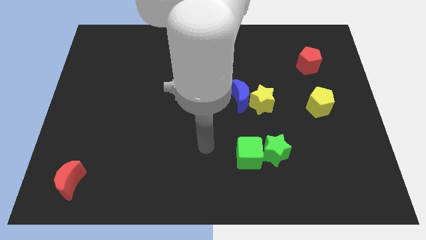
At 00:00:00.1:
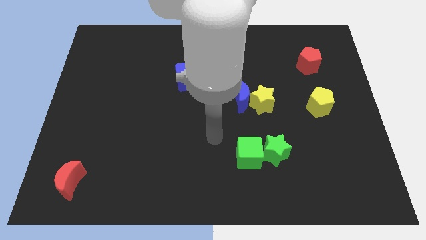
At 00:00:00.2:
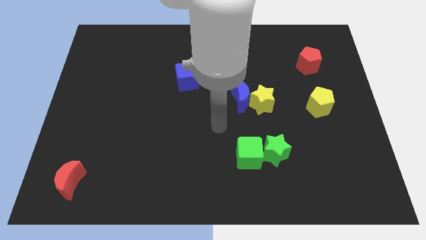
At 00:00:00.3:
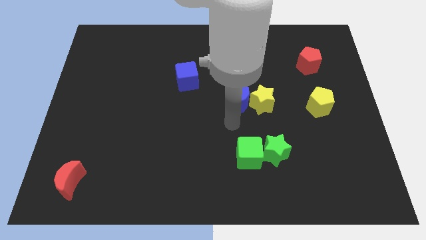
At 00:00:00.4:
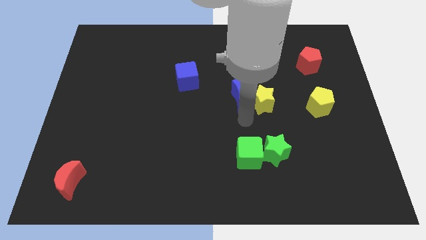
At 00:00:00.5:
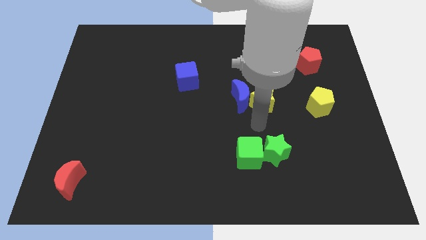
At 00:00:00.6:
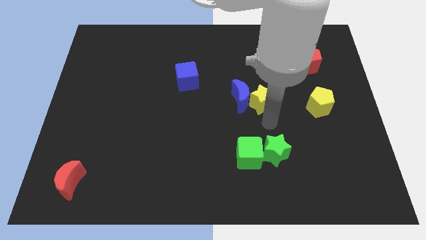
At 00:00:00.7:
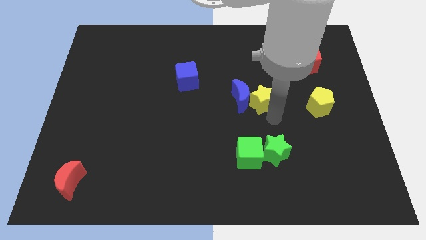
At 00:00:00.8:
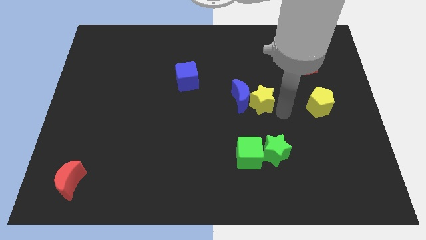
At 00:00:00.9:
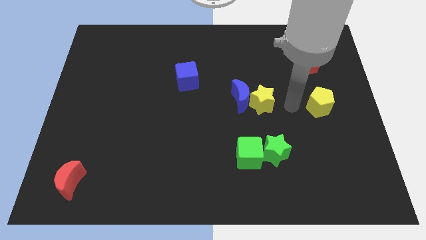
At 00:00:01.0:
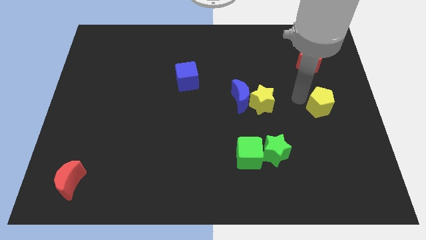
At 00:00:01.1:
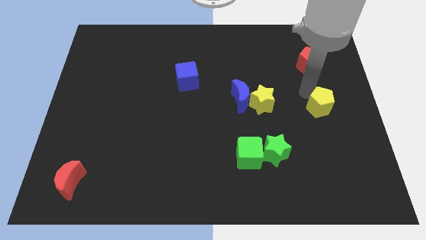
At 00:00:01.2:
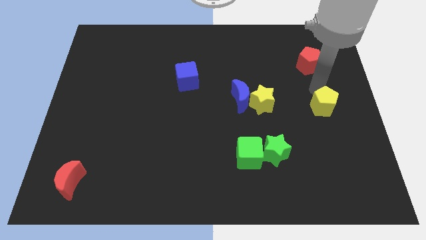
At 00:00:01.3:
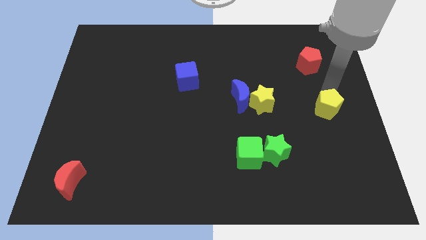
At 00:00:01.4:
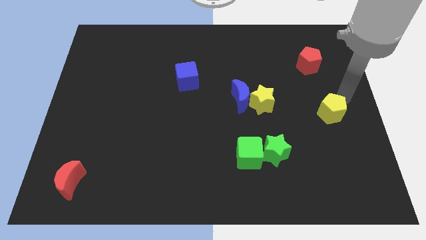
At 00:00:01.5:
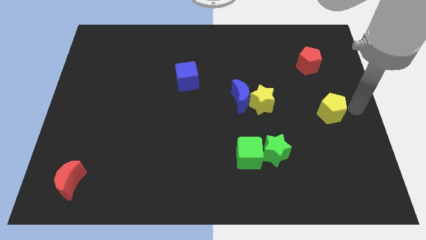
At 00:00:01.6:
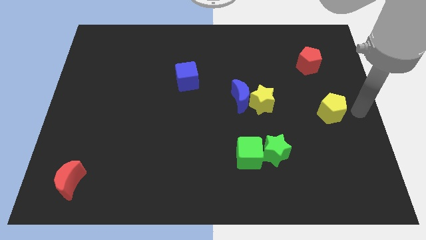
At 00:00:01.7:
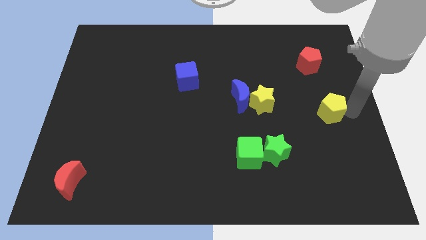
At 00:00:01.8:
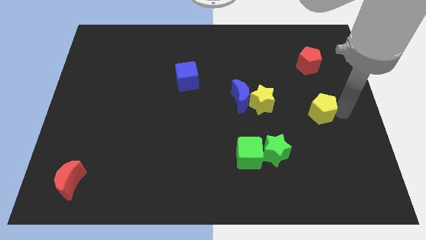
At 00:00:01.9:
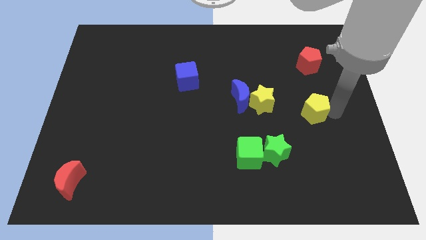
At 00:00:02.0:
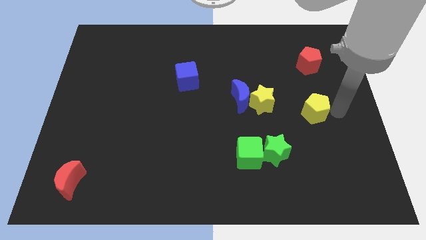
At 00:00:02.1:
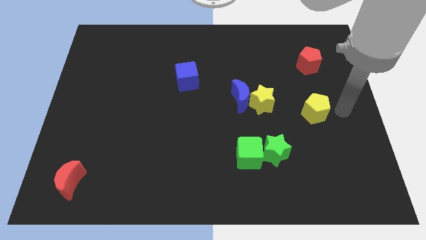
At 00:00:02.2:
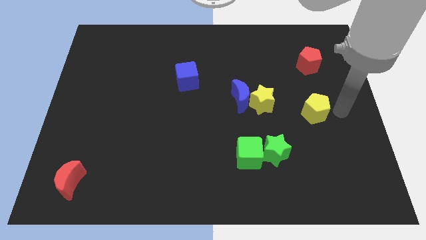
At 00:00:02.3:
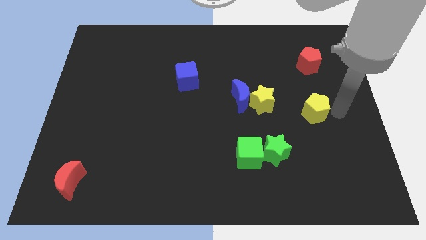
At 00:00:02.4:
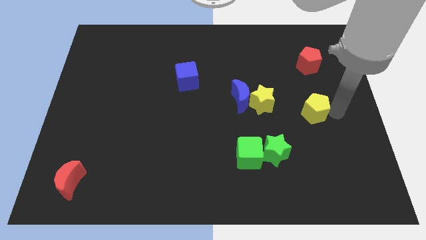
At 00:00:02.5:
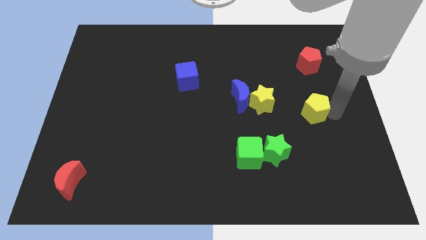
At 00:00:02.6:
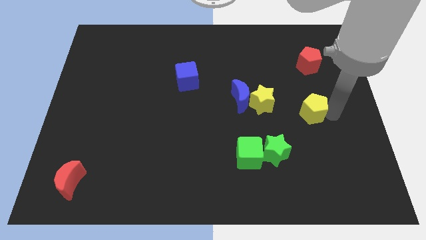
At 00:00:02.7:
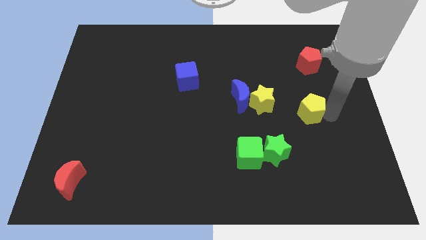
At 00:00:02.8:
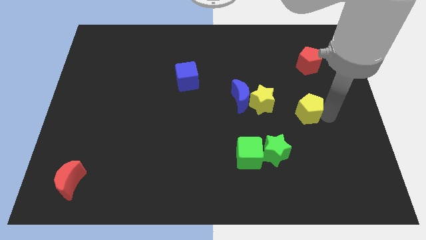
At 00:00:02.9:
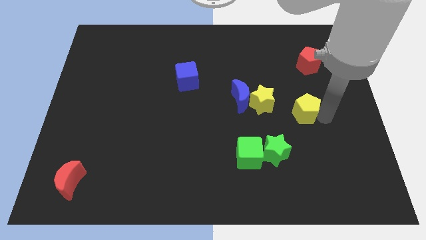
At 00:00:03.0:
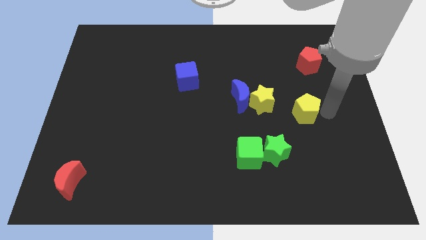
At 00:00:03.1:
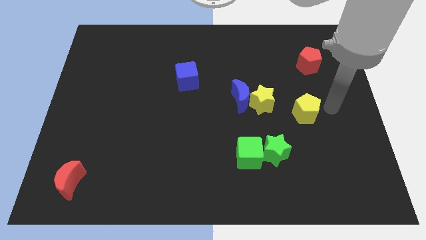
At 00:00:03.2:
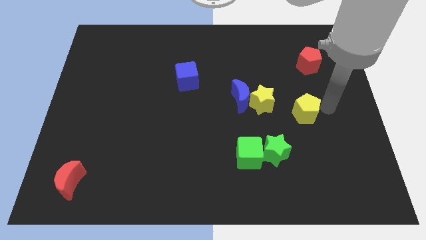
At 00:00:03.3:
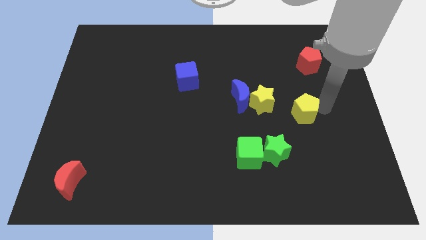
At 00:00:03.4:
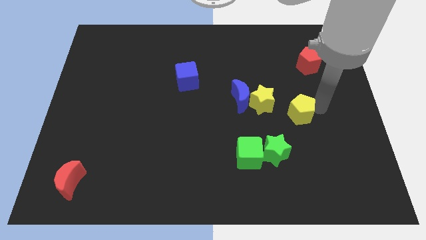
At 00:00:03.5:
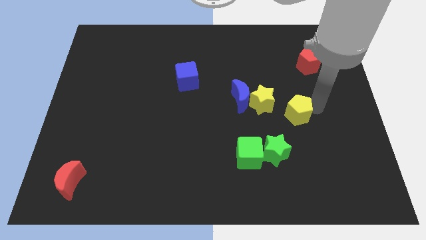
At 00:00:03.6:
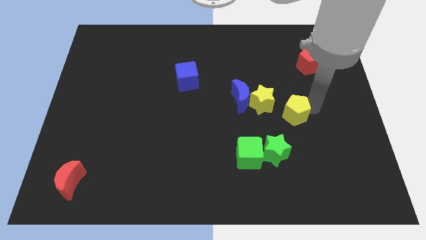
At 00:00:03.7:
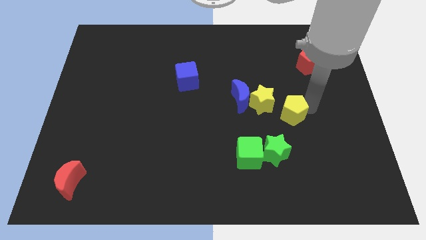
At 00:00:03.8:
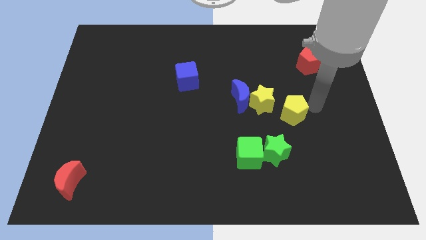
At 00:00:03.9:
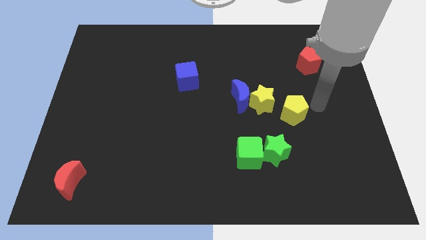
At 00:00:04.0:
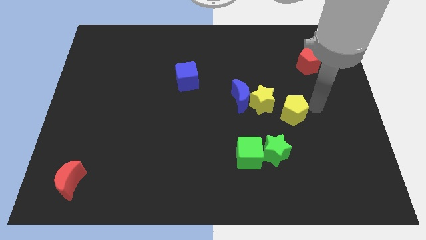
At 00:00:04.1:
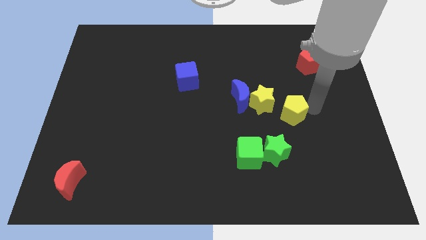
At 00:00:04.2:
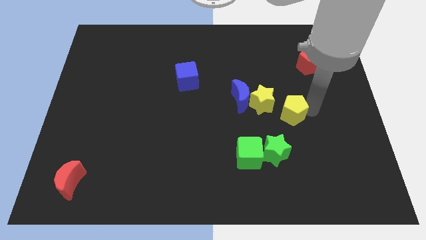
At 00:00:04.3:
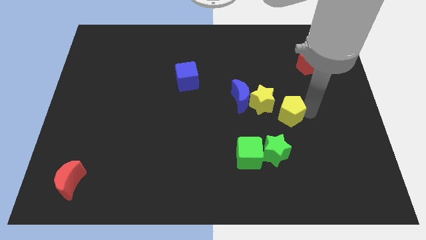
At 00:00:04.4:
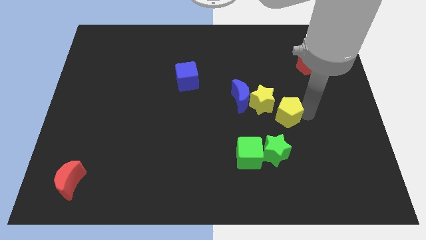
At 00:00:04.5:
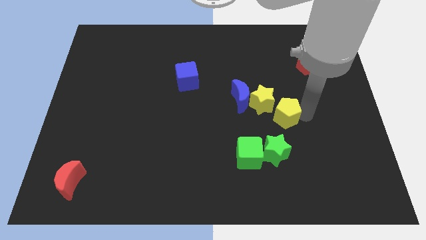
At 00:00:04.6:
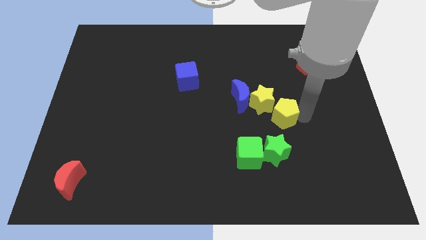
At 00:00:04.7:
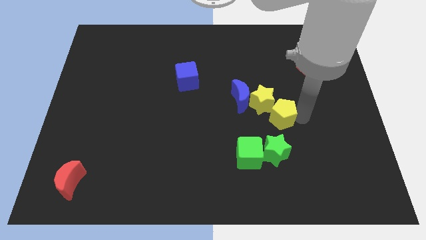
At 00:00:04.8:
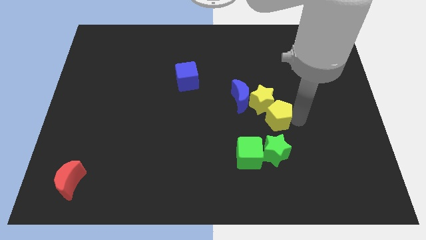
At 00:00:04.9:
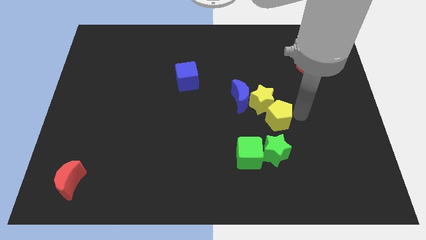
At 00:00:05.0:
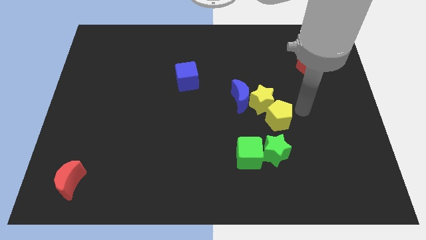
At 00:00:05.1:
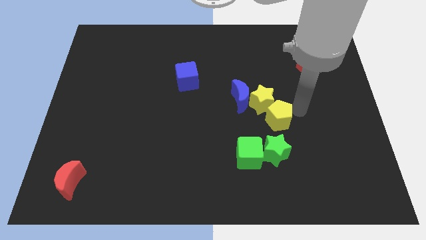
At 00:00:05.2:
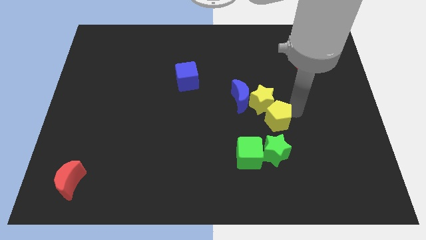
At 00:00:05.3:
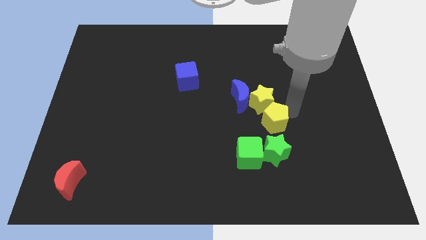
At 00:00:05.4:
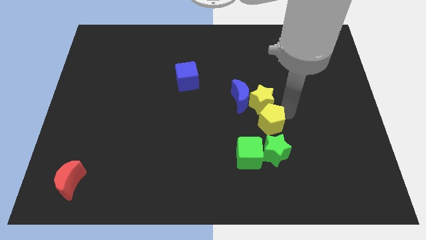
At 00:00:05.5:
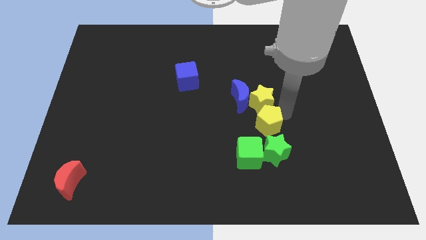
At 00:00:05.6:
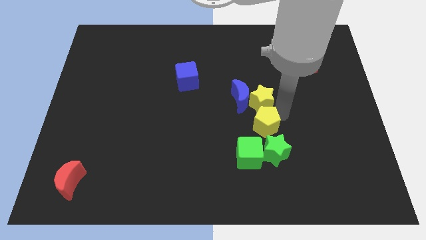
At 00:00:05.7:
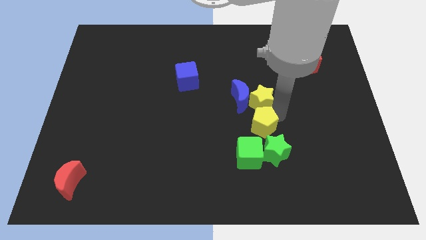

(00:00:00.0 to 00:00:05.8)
move the yellow pentagon to the bottom of the blue moon
